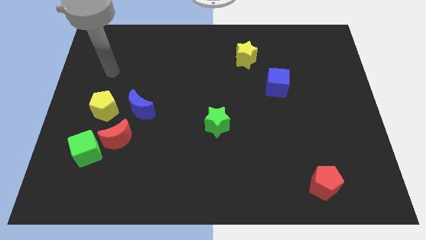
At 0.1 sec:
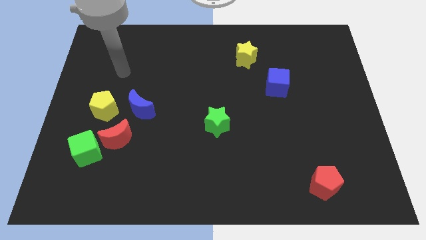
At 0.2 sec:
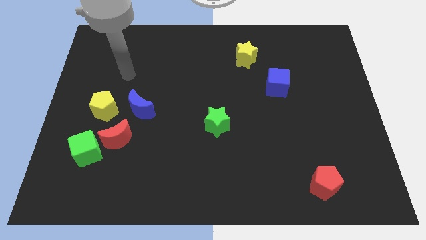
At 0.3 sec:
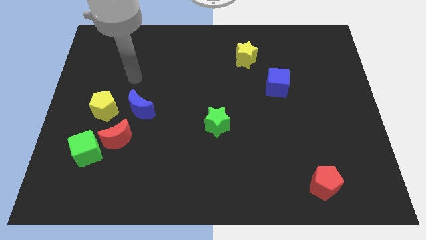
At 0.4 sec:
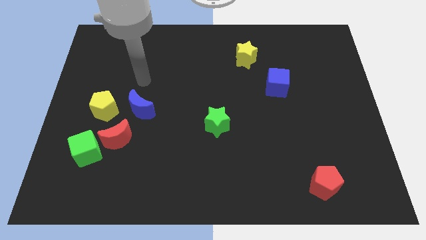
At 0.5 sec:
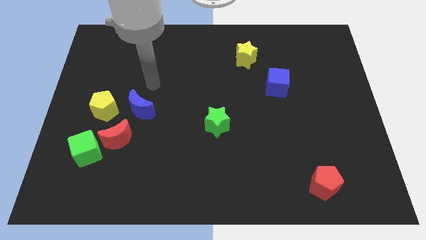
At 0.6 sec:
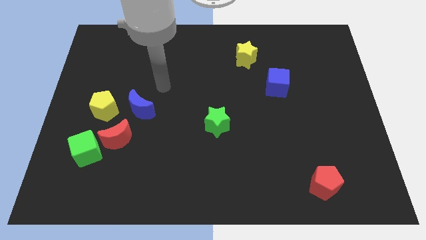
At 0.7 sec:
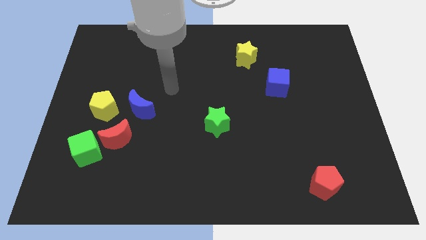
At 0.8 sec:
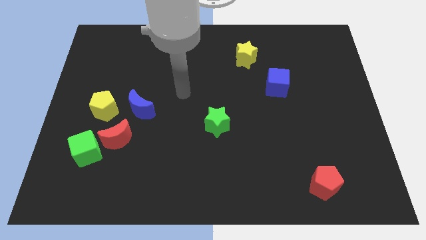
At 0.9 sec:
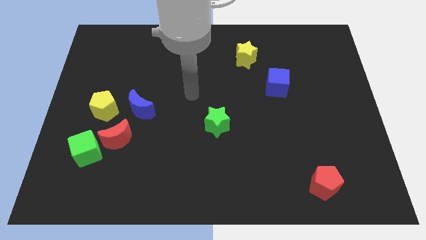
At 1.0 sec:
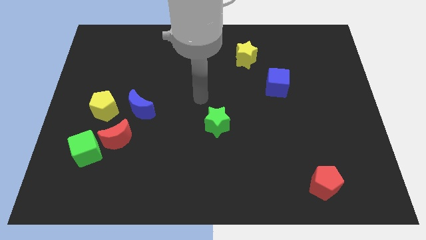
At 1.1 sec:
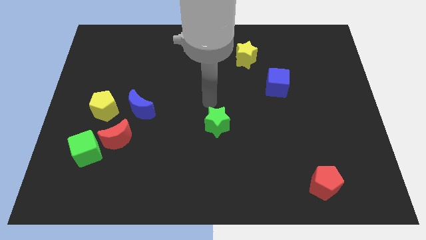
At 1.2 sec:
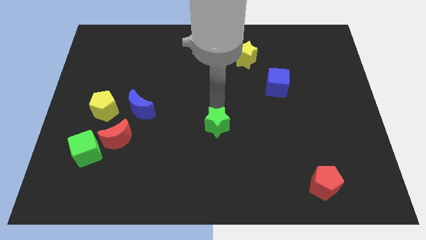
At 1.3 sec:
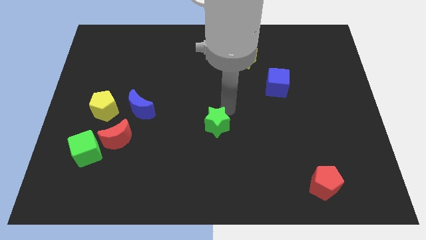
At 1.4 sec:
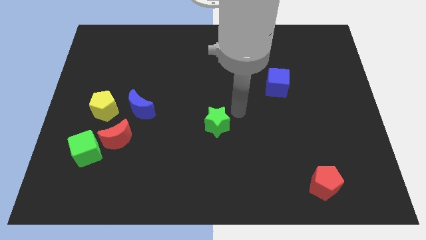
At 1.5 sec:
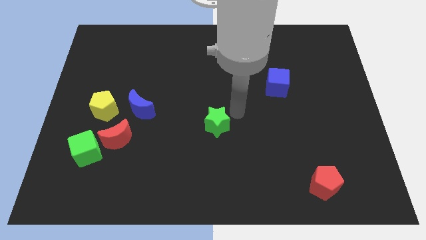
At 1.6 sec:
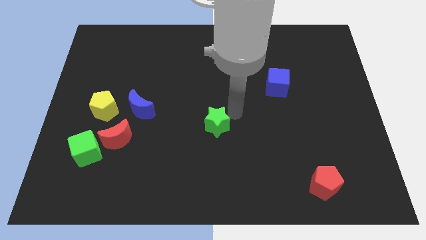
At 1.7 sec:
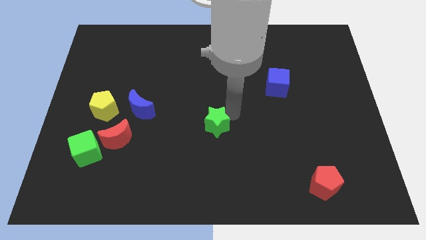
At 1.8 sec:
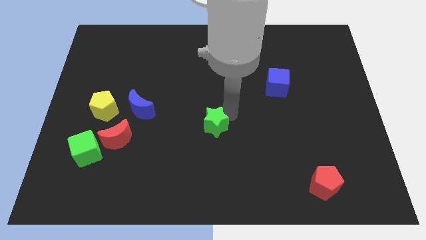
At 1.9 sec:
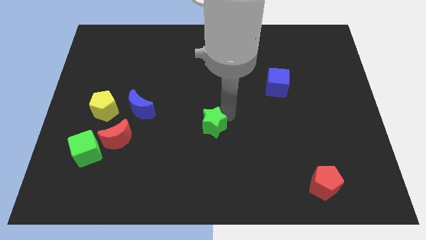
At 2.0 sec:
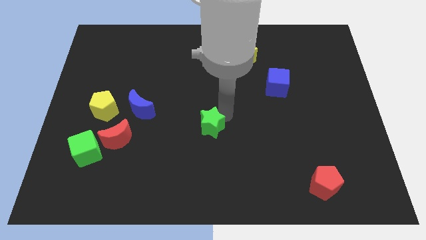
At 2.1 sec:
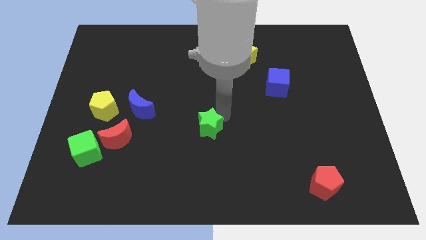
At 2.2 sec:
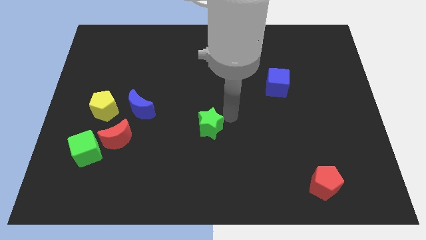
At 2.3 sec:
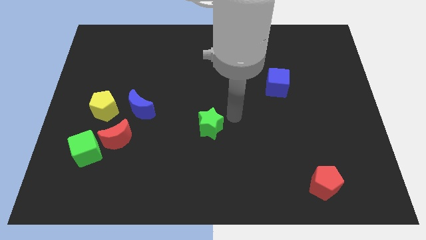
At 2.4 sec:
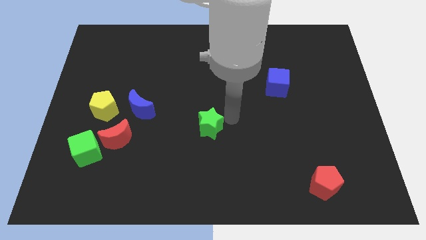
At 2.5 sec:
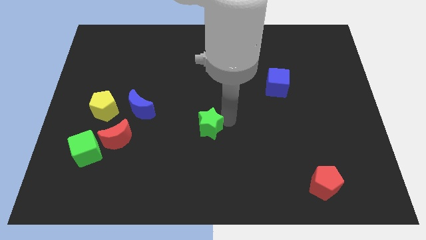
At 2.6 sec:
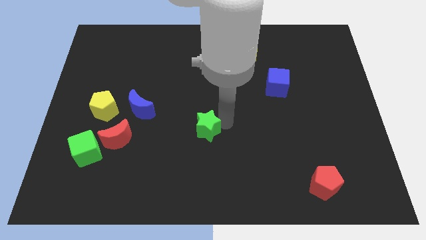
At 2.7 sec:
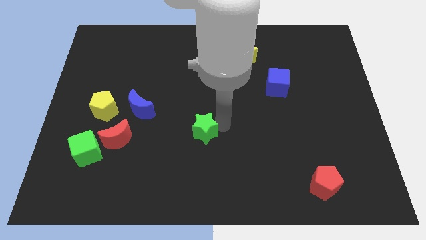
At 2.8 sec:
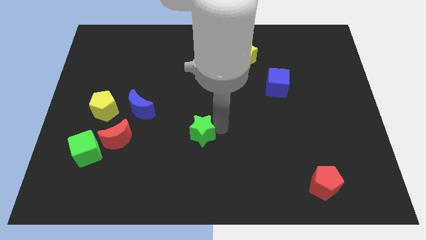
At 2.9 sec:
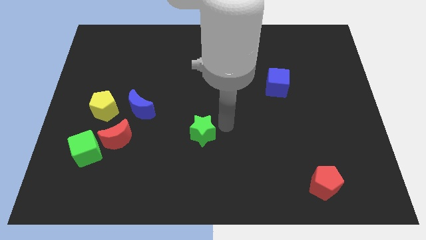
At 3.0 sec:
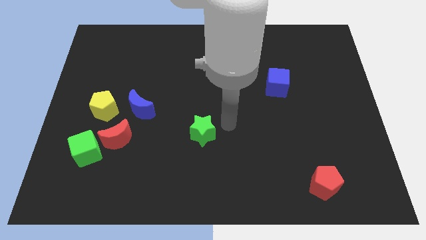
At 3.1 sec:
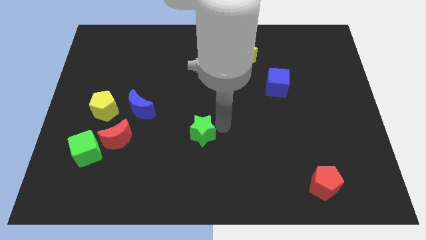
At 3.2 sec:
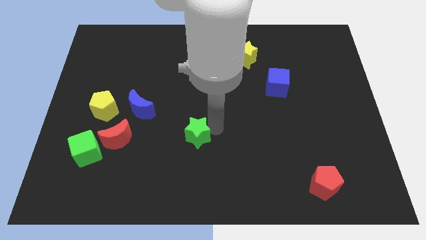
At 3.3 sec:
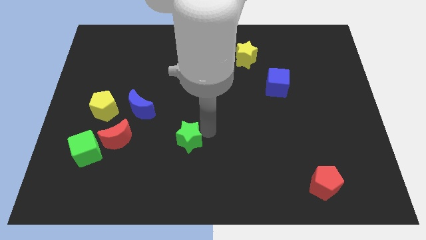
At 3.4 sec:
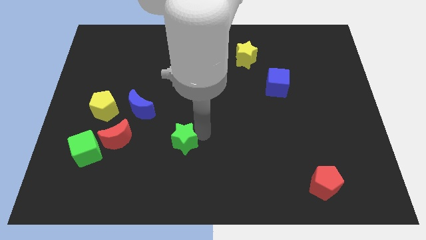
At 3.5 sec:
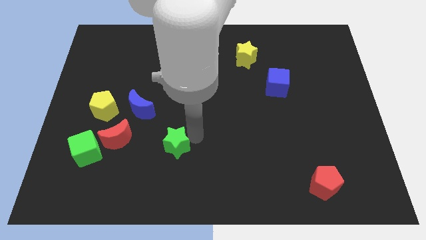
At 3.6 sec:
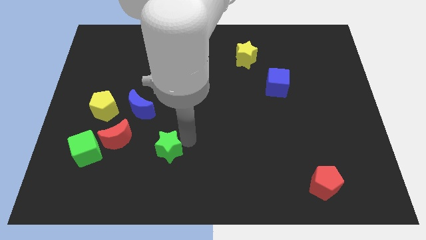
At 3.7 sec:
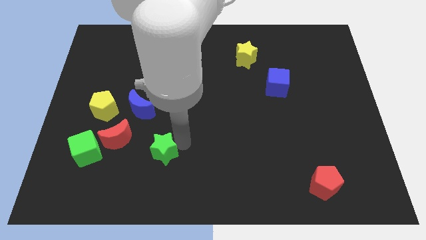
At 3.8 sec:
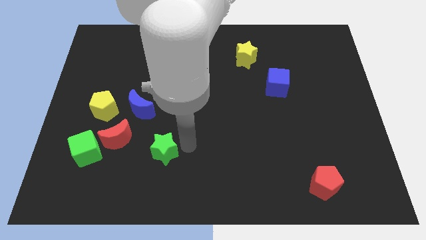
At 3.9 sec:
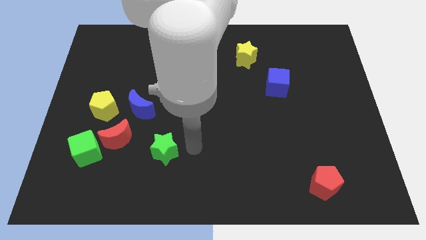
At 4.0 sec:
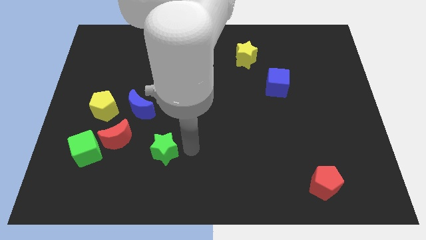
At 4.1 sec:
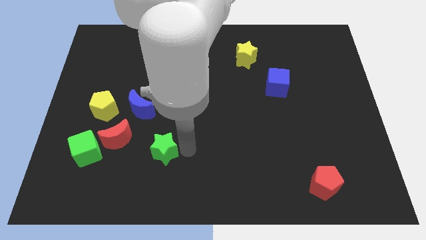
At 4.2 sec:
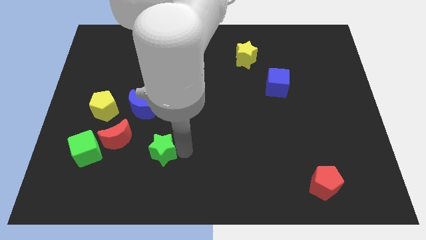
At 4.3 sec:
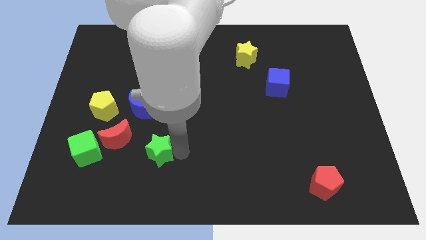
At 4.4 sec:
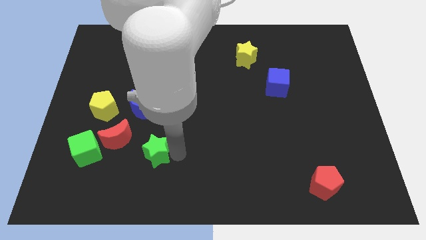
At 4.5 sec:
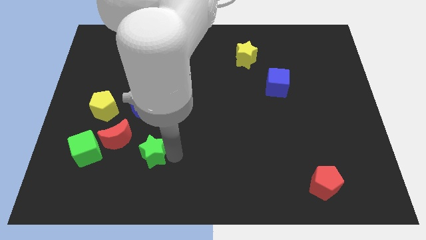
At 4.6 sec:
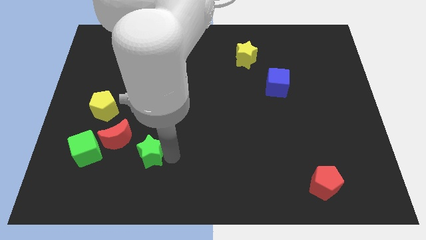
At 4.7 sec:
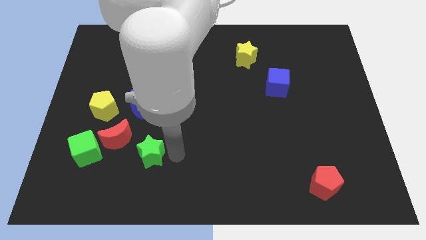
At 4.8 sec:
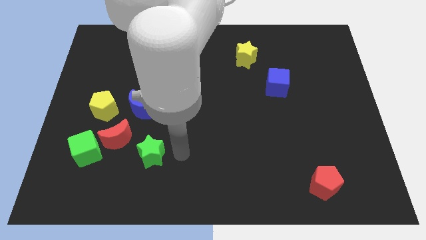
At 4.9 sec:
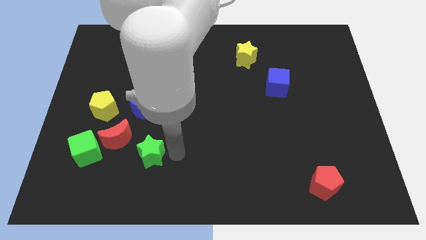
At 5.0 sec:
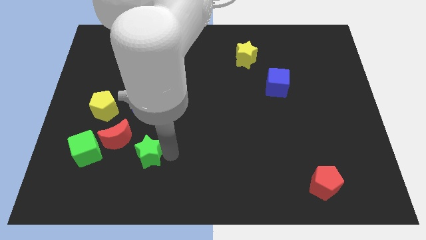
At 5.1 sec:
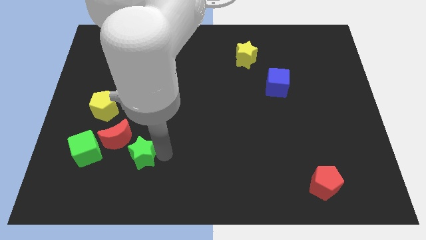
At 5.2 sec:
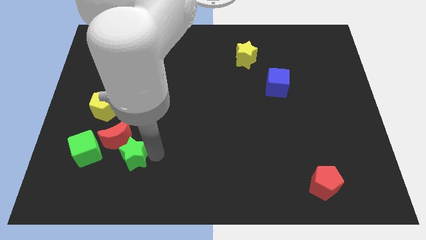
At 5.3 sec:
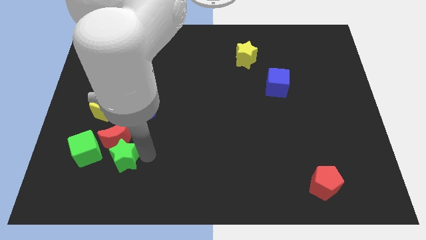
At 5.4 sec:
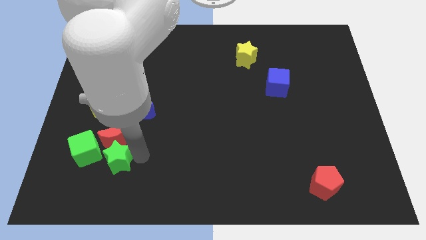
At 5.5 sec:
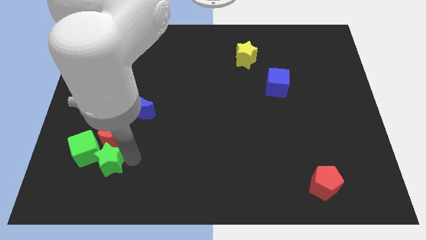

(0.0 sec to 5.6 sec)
move the green star to the green cube

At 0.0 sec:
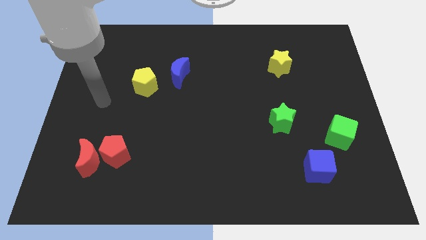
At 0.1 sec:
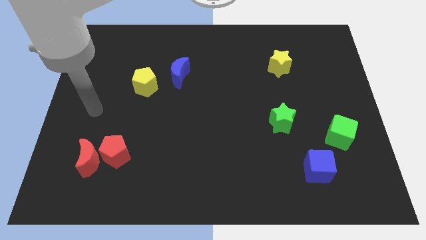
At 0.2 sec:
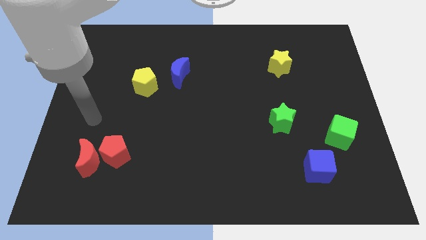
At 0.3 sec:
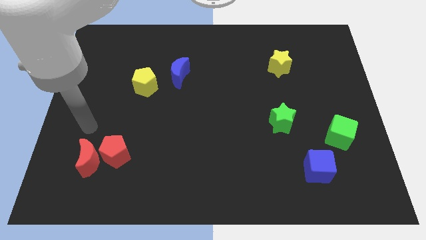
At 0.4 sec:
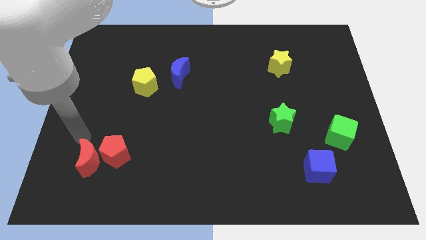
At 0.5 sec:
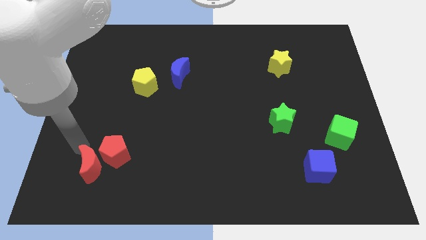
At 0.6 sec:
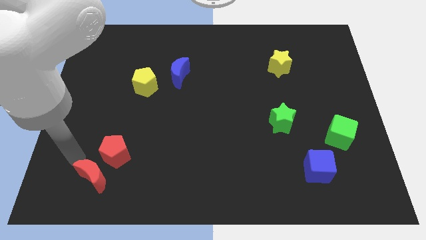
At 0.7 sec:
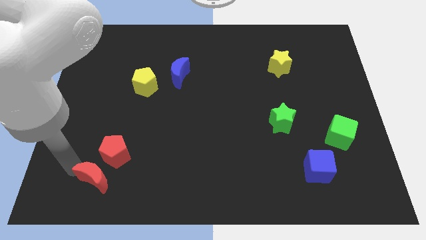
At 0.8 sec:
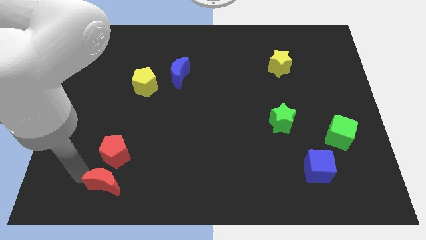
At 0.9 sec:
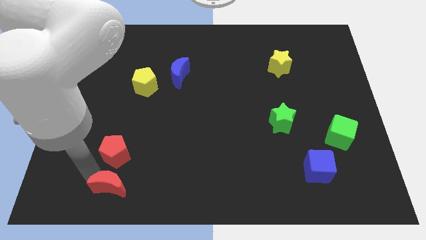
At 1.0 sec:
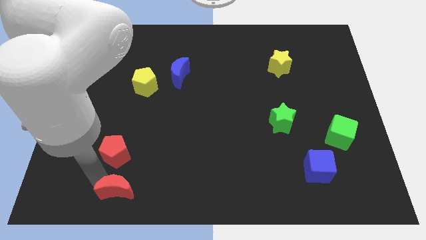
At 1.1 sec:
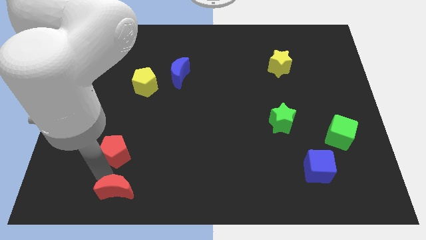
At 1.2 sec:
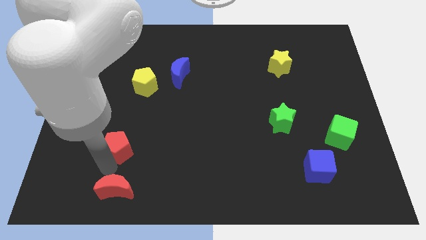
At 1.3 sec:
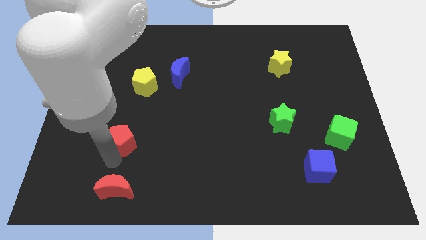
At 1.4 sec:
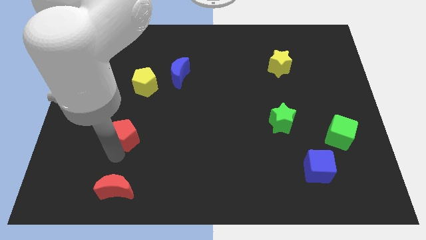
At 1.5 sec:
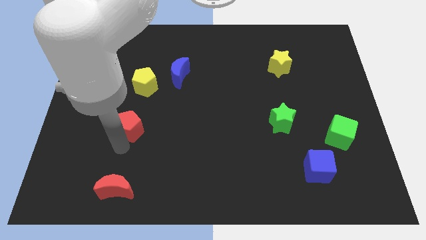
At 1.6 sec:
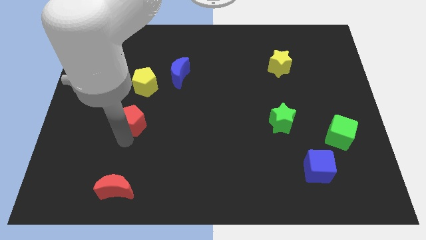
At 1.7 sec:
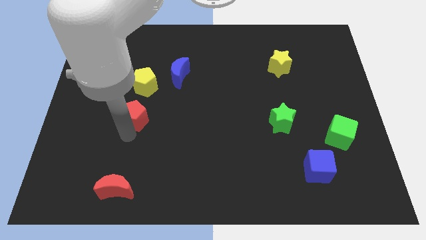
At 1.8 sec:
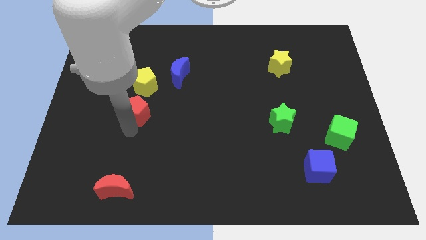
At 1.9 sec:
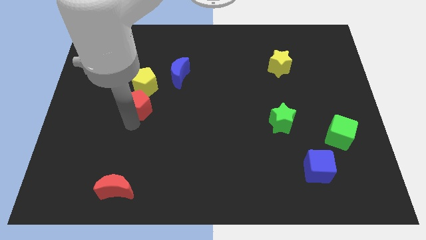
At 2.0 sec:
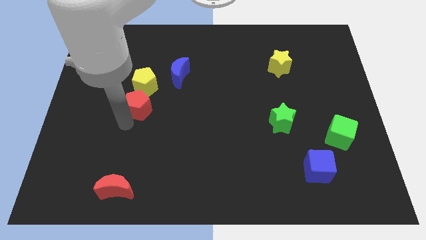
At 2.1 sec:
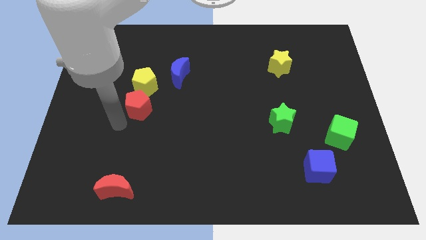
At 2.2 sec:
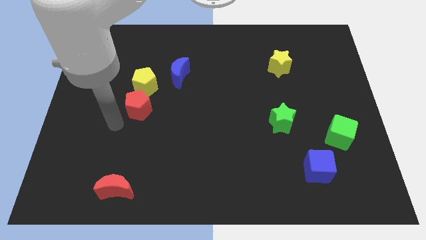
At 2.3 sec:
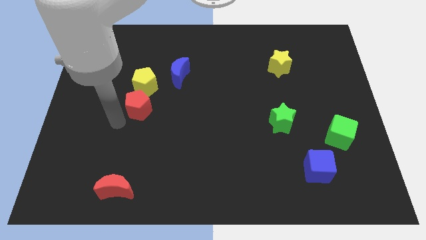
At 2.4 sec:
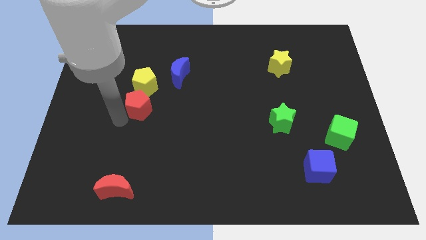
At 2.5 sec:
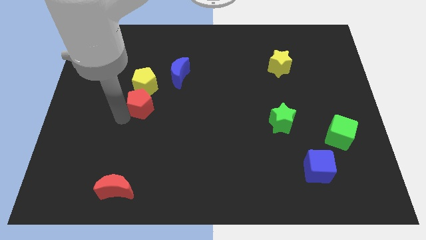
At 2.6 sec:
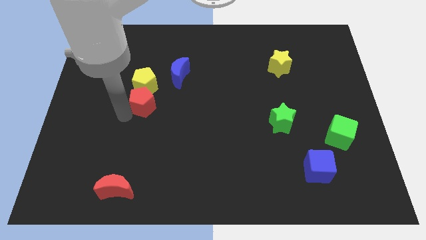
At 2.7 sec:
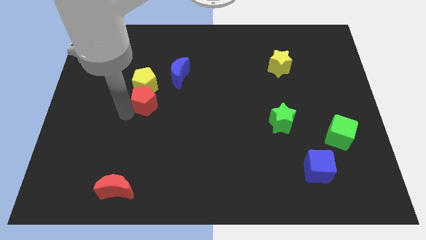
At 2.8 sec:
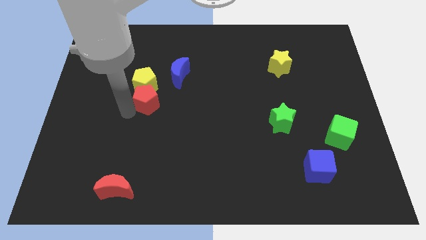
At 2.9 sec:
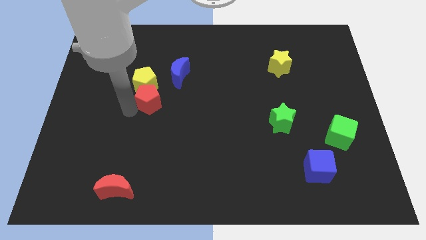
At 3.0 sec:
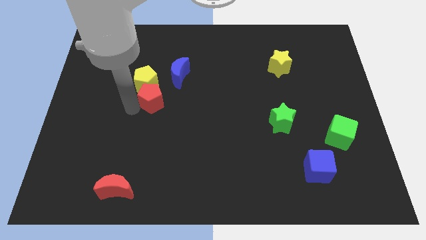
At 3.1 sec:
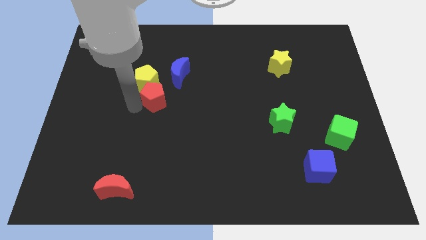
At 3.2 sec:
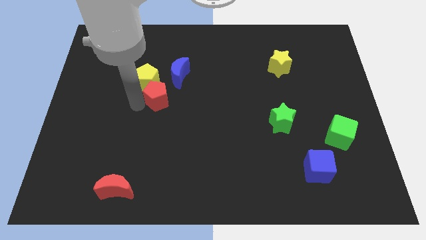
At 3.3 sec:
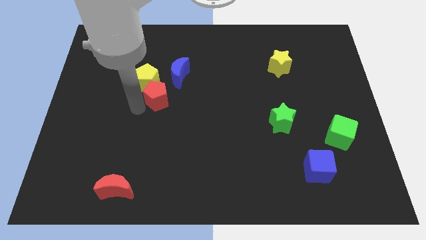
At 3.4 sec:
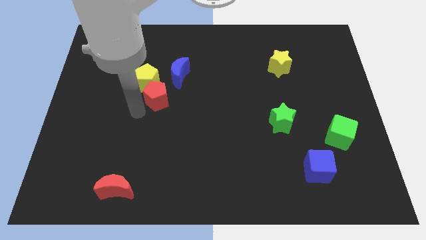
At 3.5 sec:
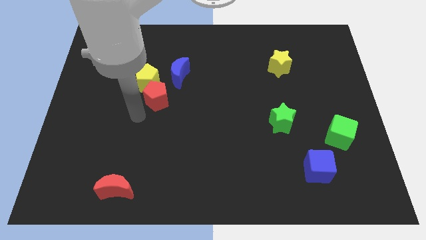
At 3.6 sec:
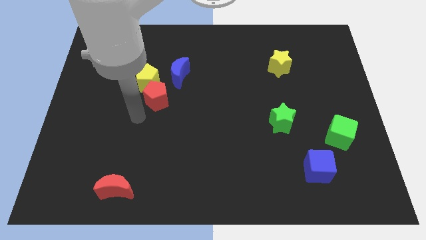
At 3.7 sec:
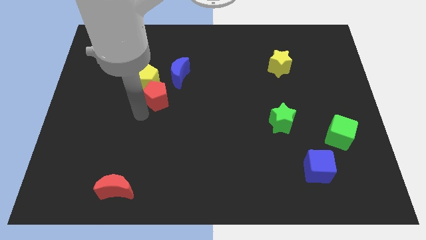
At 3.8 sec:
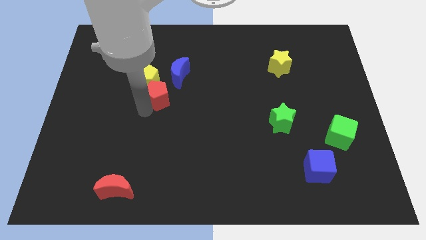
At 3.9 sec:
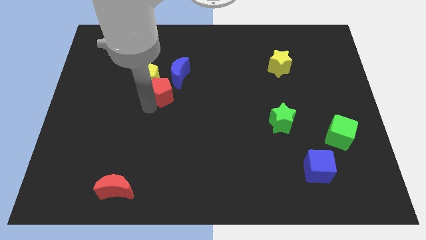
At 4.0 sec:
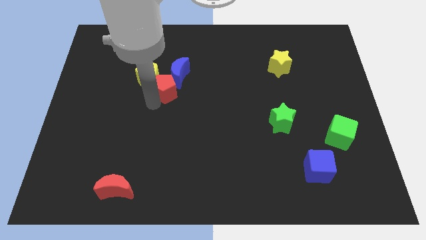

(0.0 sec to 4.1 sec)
put the red pentagon to the blue moon
